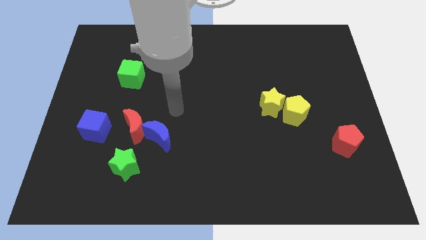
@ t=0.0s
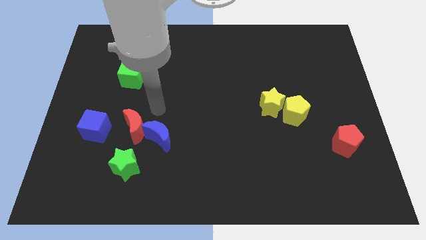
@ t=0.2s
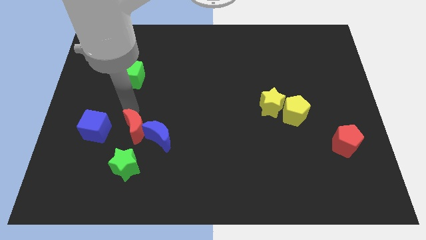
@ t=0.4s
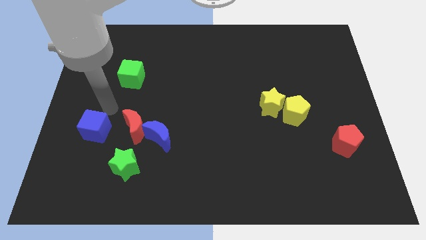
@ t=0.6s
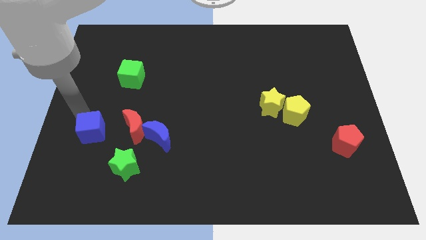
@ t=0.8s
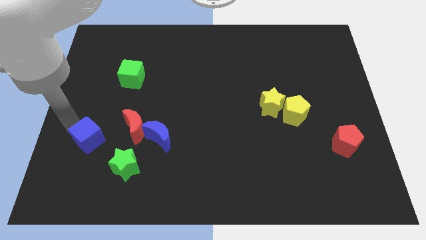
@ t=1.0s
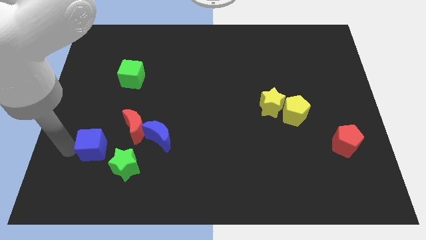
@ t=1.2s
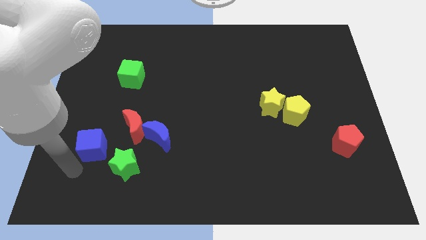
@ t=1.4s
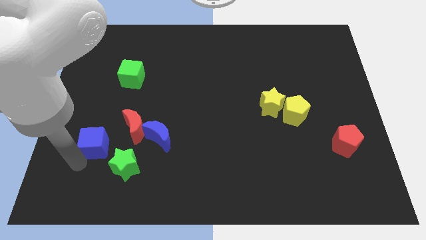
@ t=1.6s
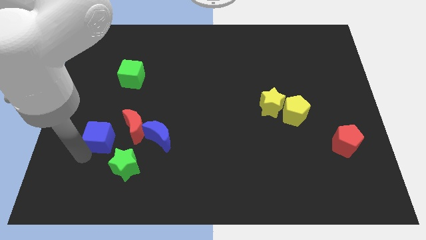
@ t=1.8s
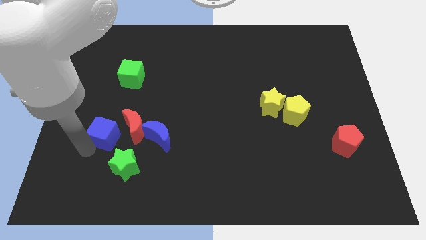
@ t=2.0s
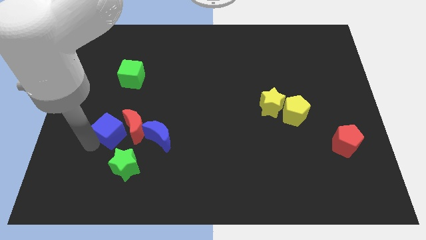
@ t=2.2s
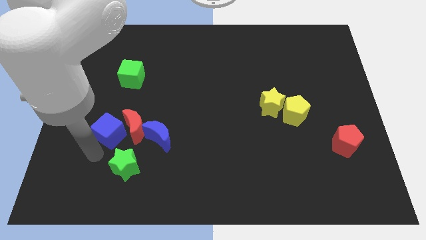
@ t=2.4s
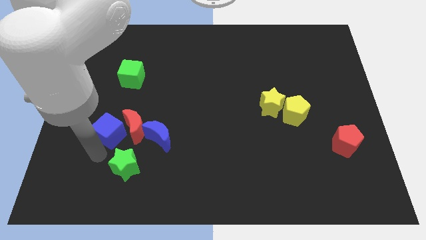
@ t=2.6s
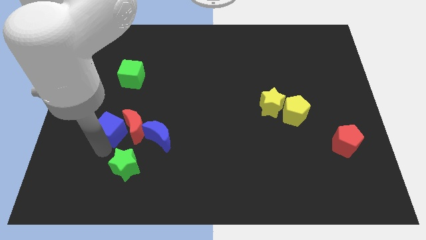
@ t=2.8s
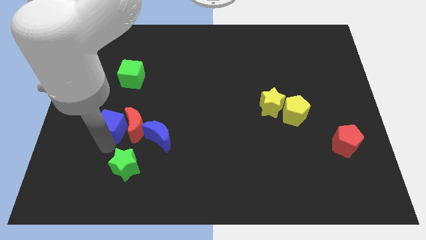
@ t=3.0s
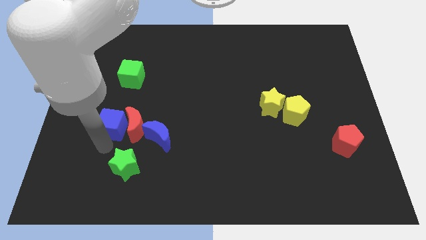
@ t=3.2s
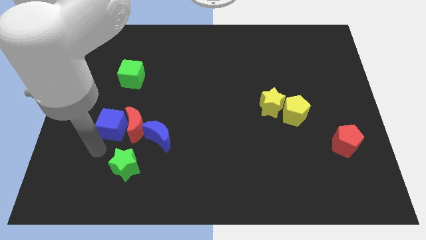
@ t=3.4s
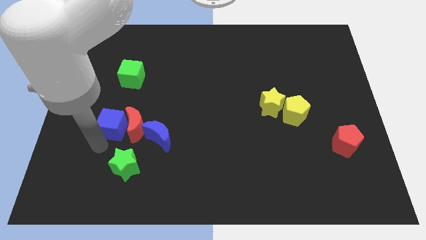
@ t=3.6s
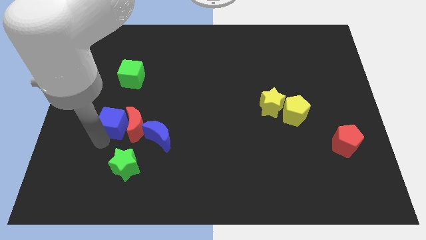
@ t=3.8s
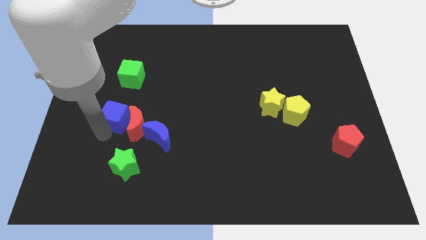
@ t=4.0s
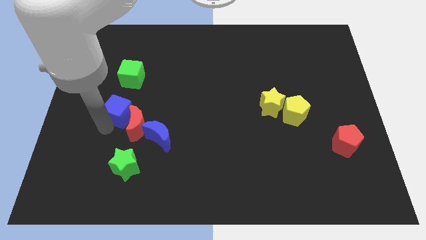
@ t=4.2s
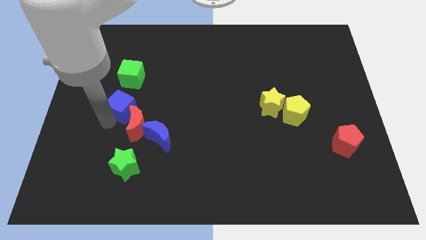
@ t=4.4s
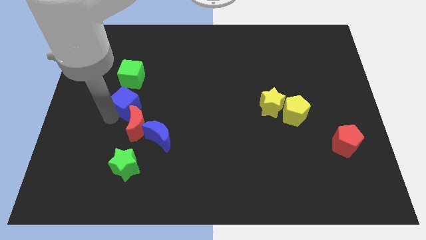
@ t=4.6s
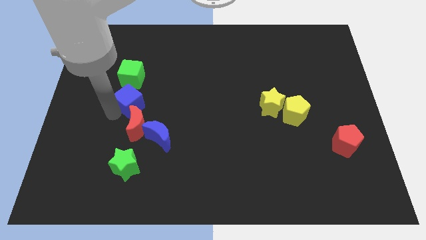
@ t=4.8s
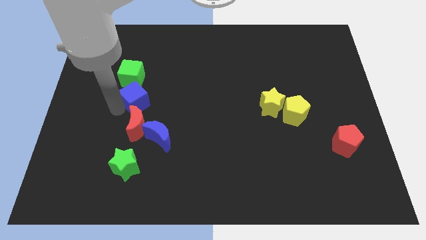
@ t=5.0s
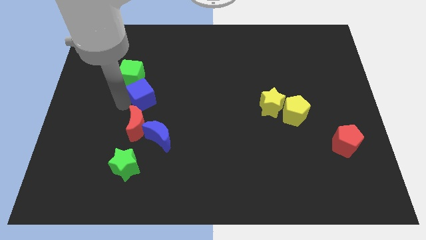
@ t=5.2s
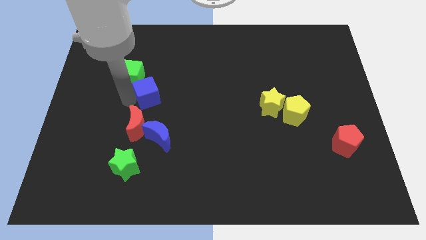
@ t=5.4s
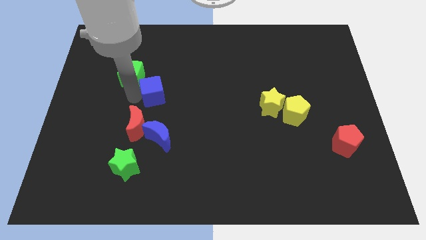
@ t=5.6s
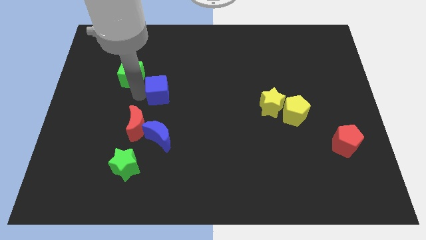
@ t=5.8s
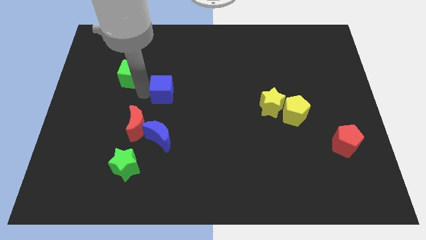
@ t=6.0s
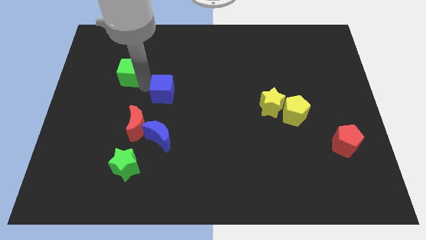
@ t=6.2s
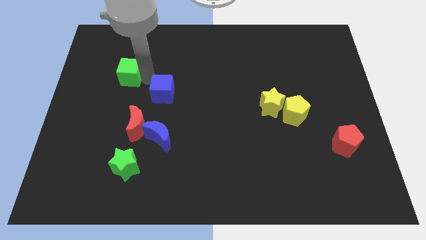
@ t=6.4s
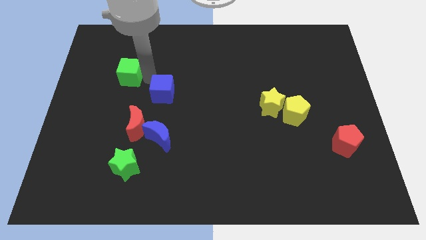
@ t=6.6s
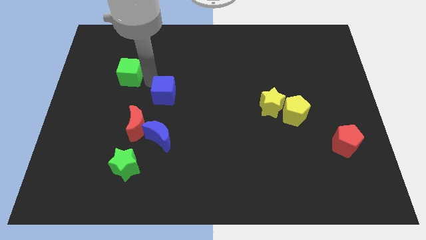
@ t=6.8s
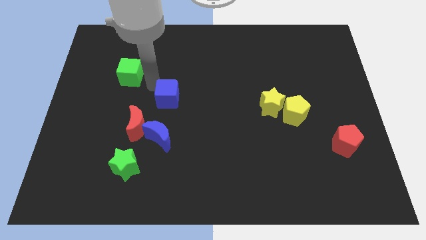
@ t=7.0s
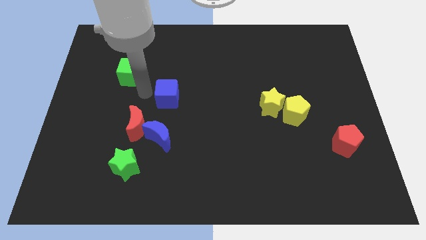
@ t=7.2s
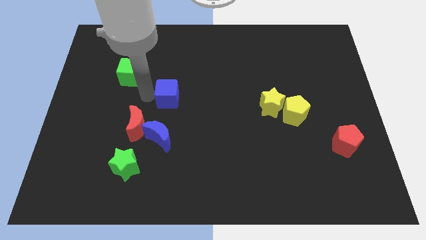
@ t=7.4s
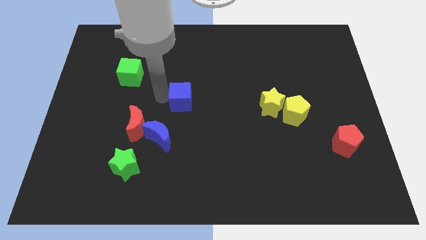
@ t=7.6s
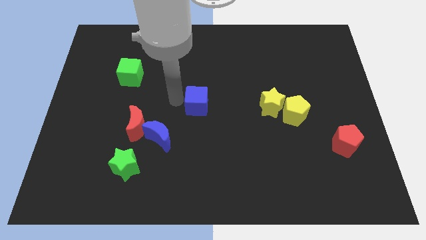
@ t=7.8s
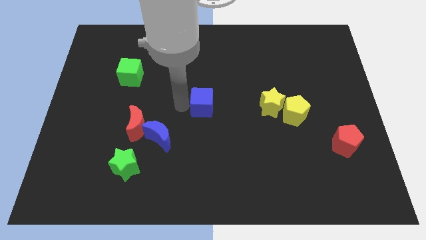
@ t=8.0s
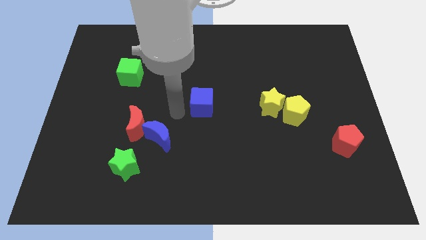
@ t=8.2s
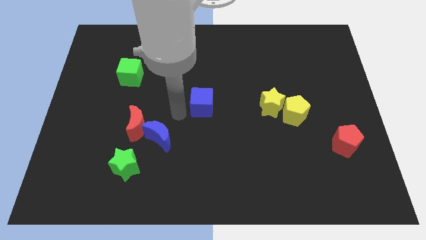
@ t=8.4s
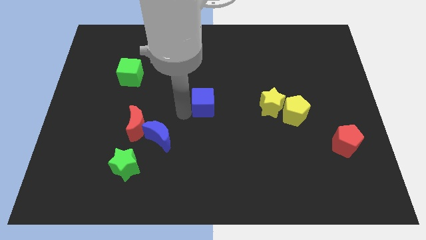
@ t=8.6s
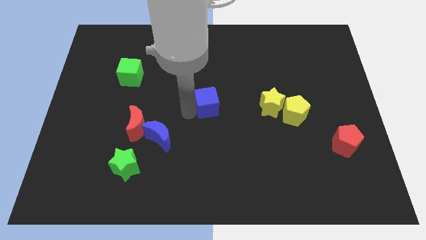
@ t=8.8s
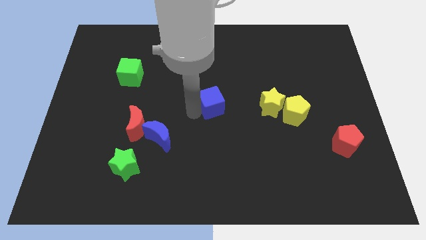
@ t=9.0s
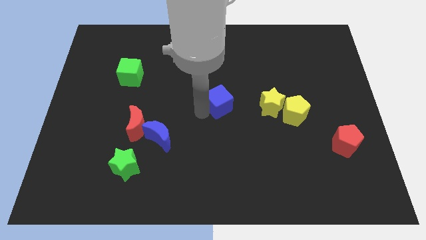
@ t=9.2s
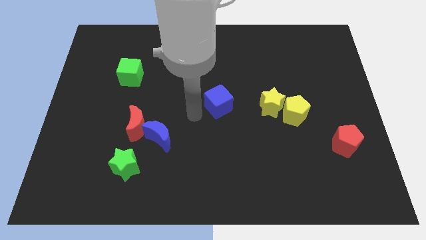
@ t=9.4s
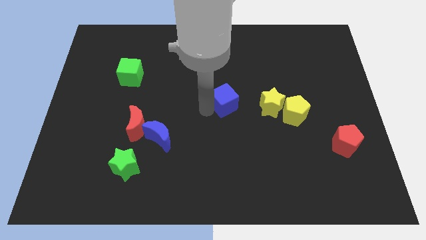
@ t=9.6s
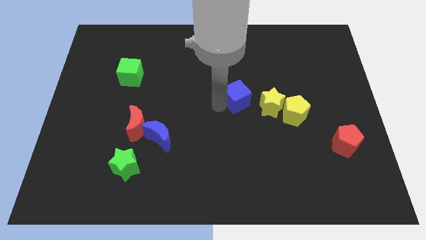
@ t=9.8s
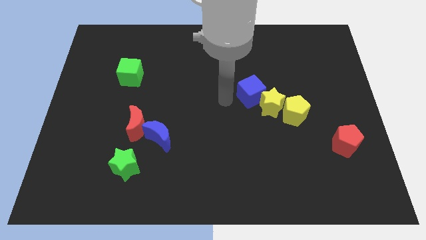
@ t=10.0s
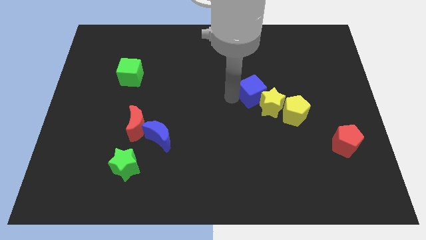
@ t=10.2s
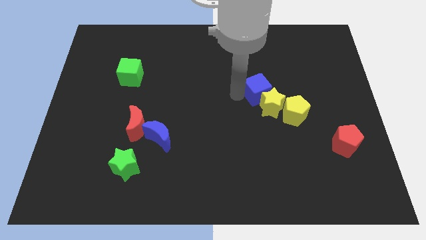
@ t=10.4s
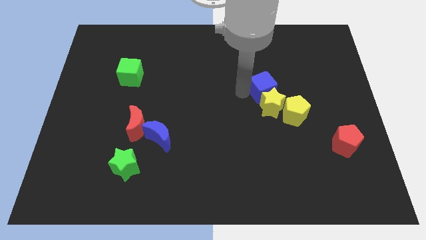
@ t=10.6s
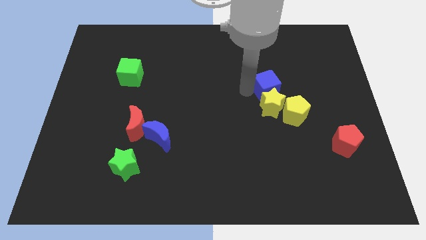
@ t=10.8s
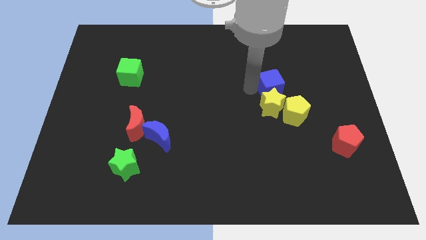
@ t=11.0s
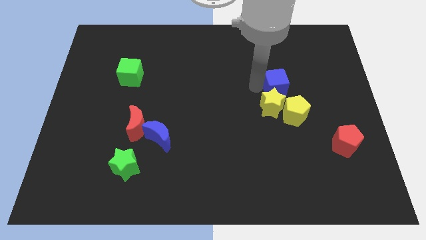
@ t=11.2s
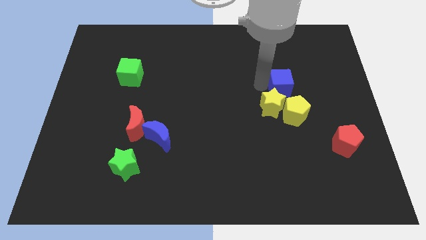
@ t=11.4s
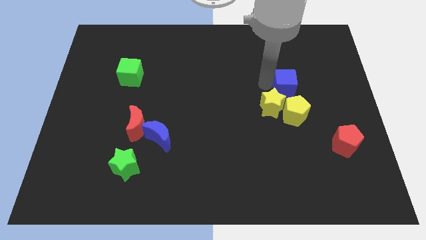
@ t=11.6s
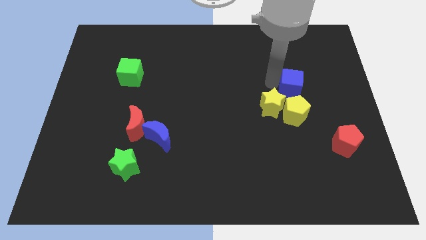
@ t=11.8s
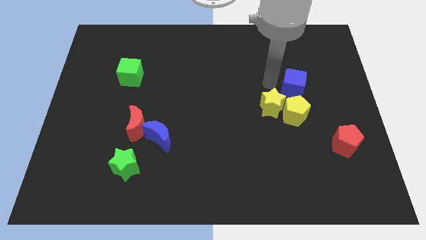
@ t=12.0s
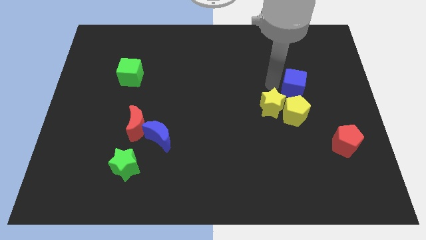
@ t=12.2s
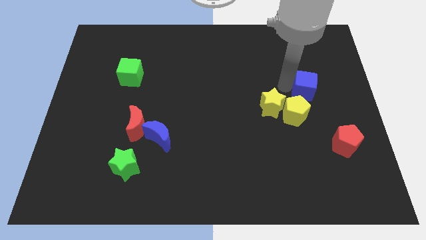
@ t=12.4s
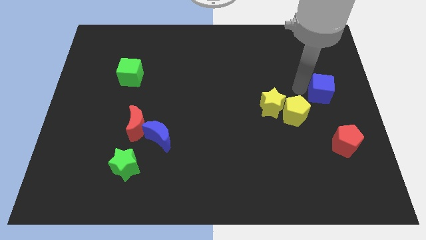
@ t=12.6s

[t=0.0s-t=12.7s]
push the blue cube to the right side
